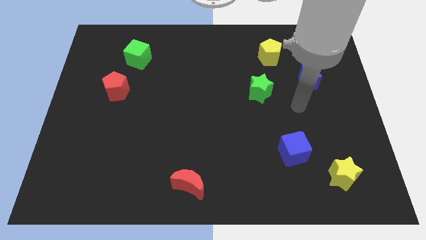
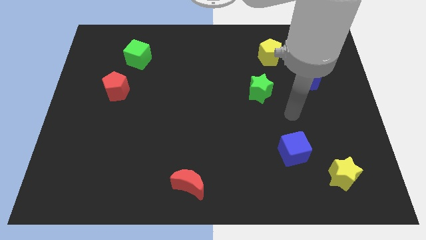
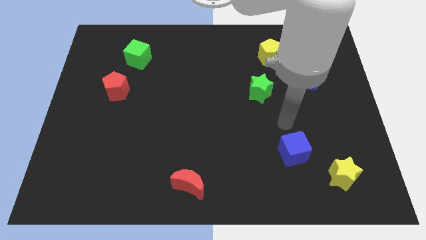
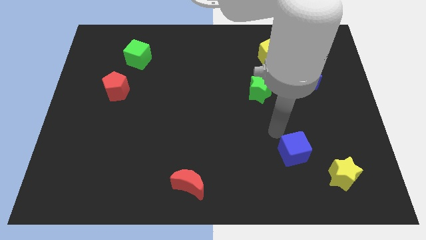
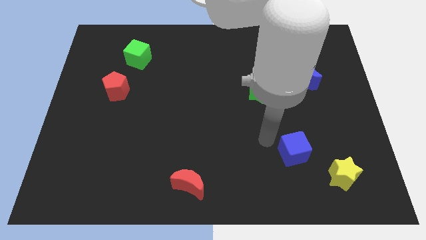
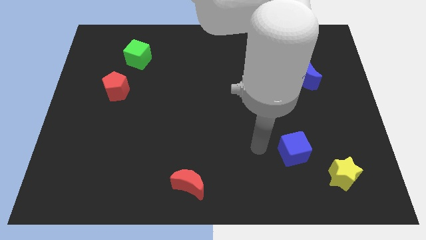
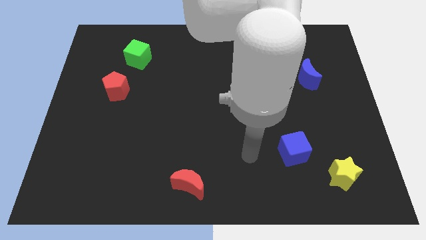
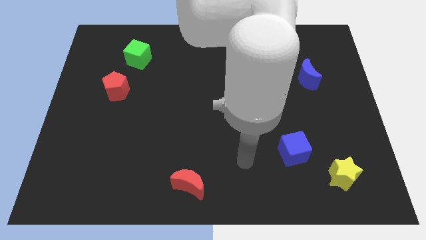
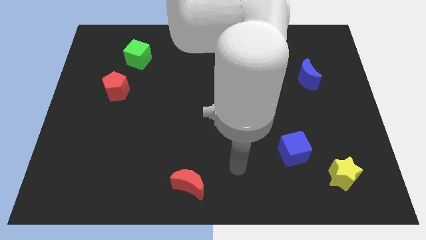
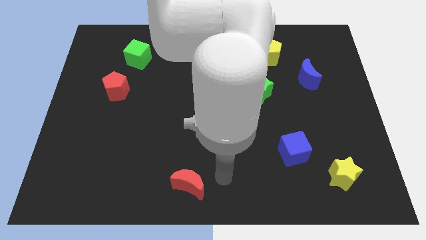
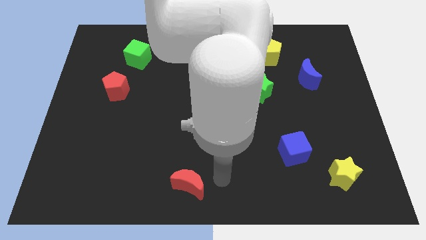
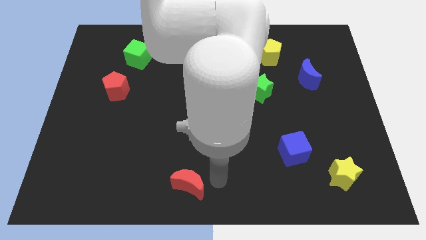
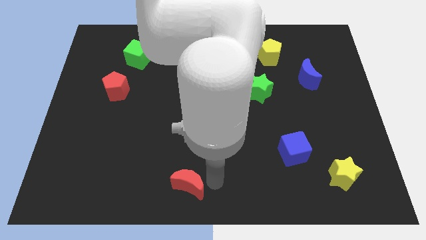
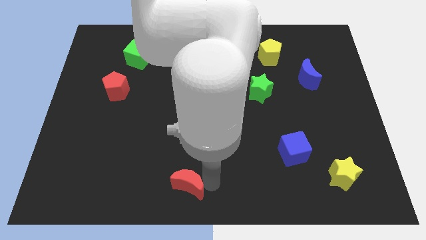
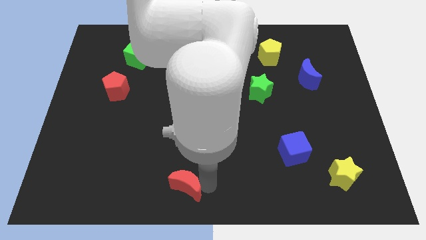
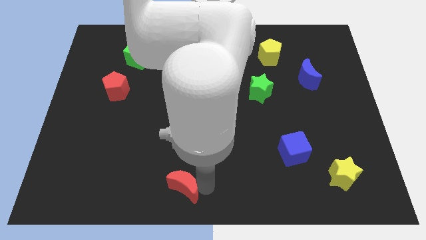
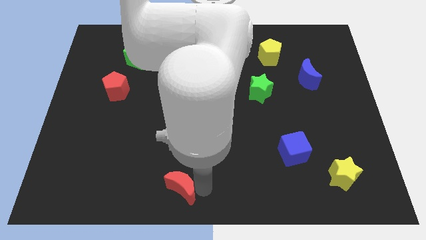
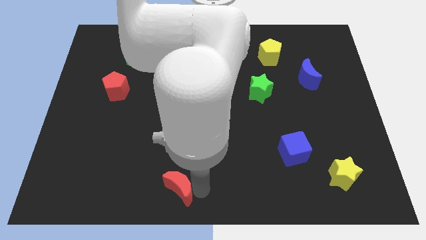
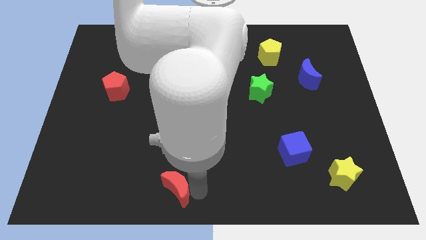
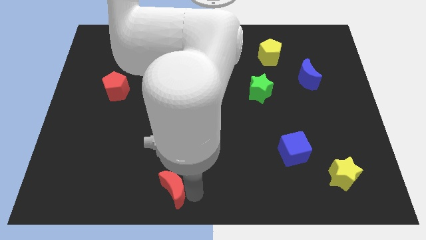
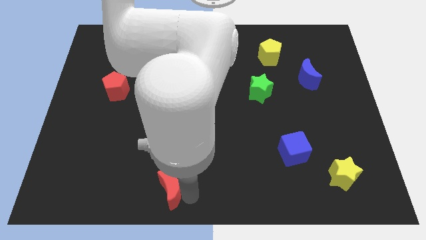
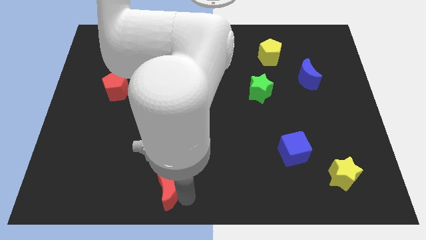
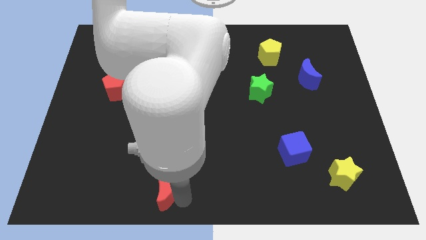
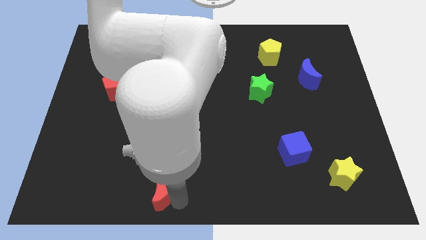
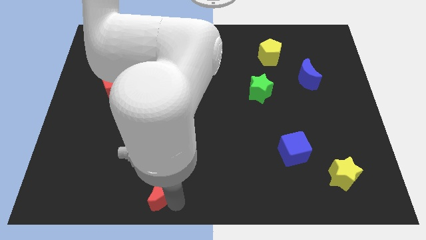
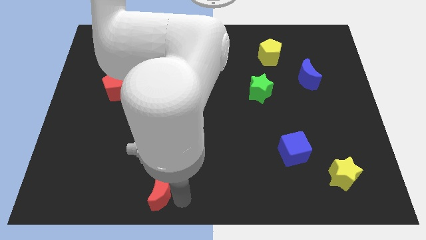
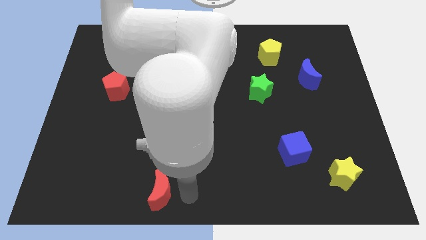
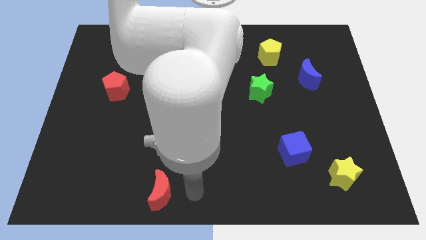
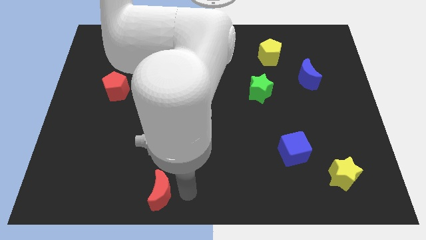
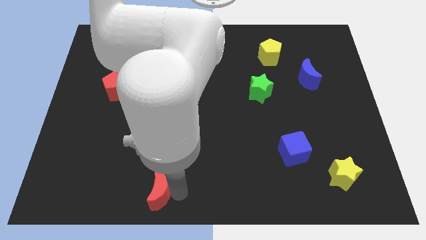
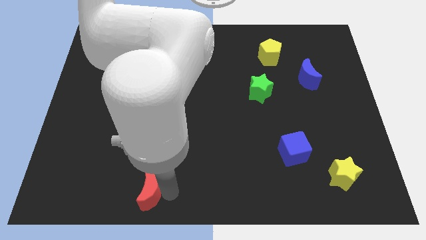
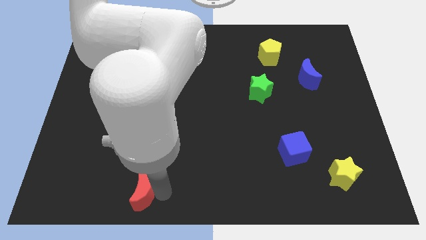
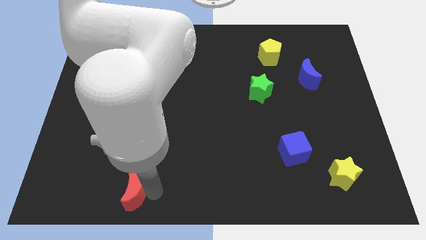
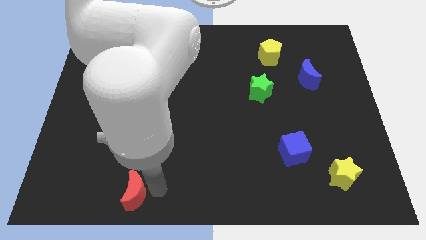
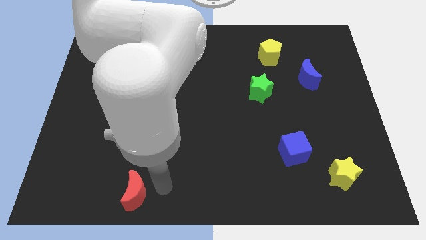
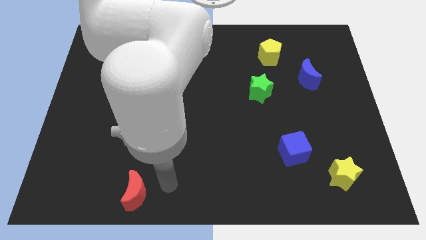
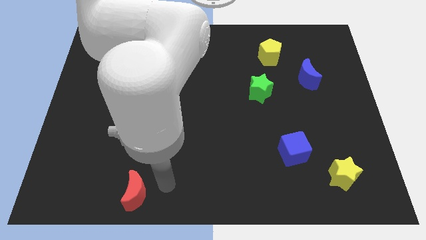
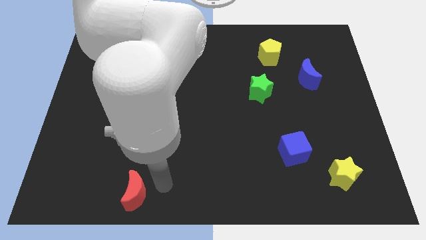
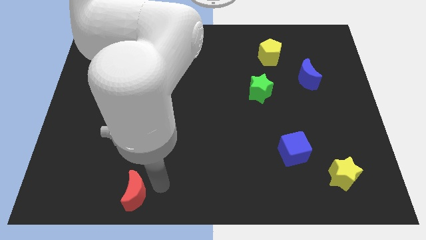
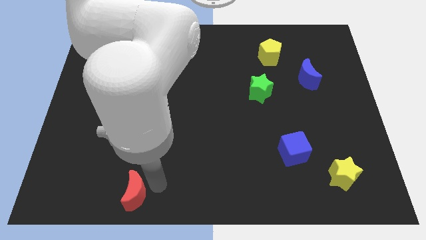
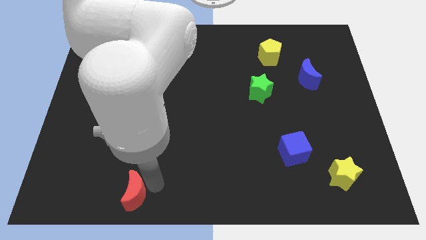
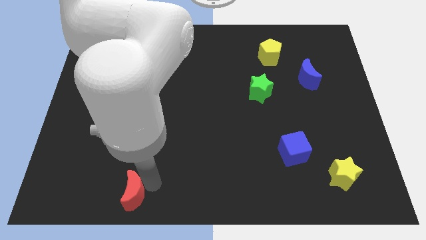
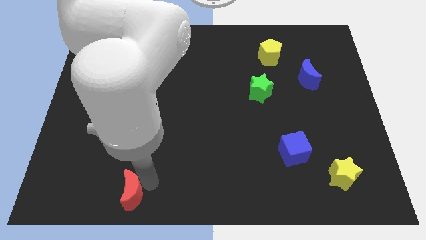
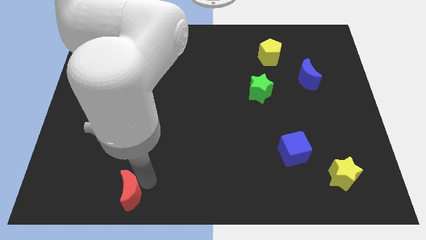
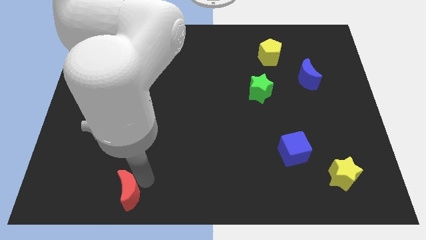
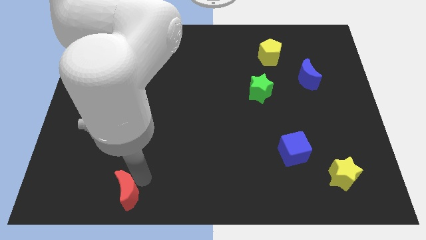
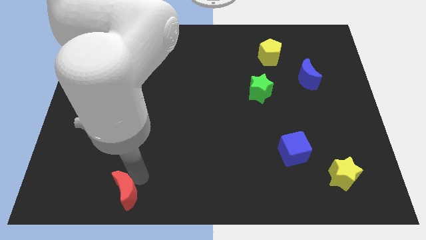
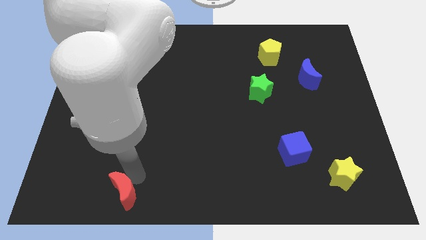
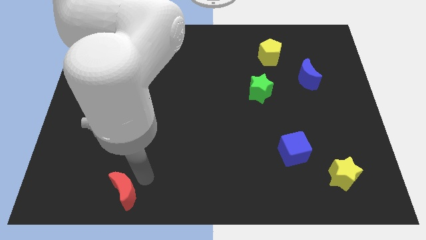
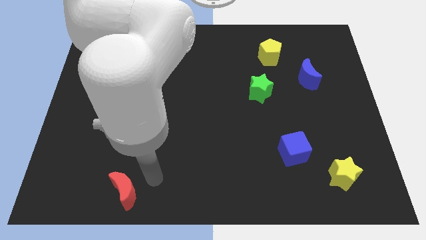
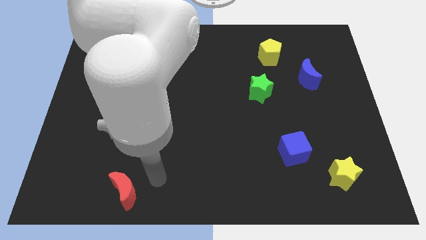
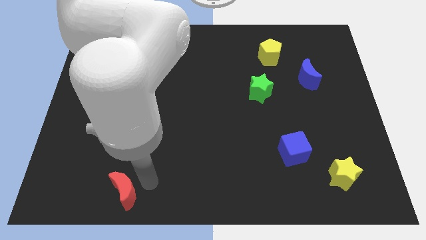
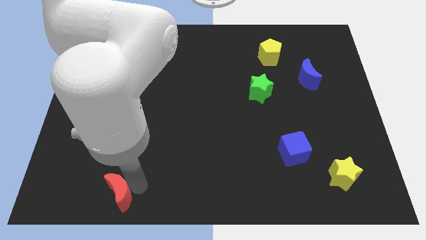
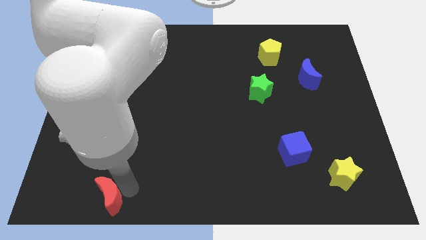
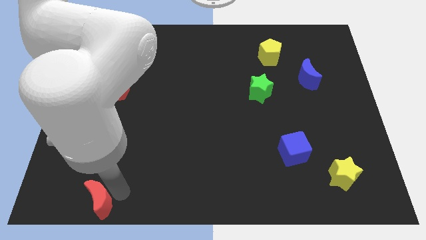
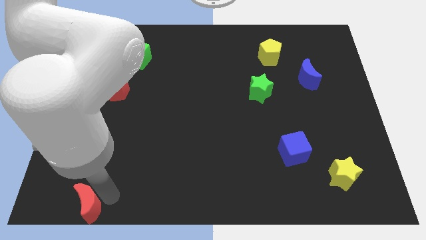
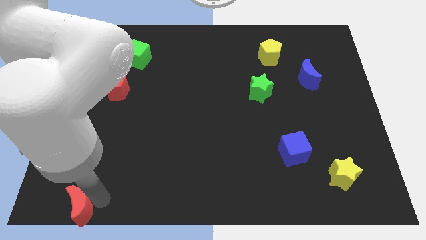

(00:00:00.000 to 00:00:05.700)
move the red moon to the lower left corner
